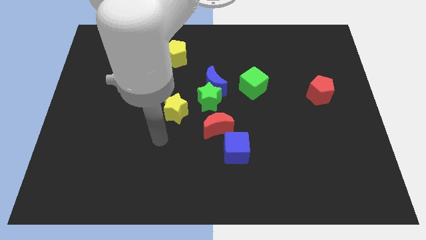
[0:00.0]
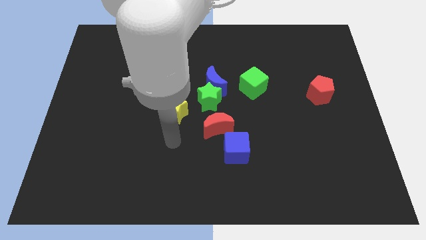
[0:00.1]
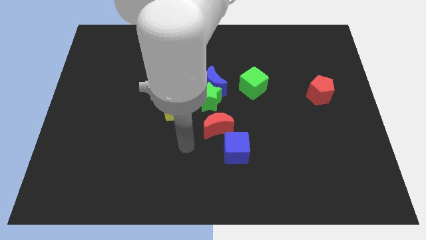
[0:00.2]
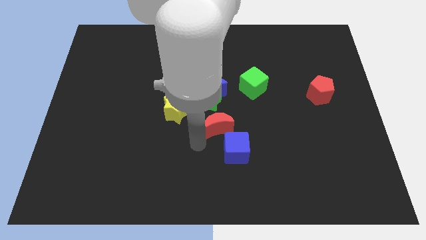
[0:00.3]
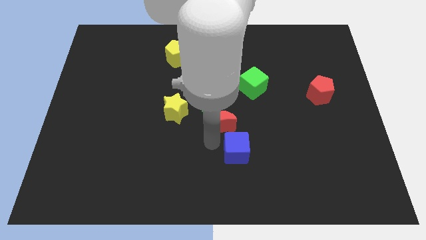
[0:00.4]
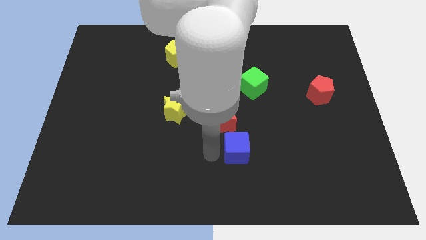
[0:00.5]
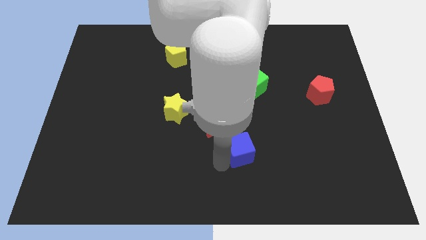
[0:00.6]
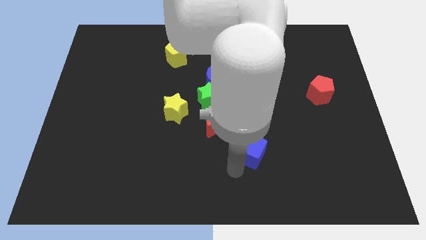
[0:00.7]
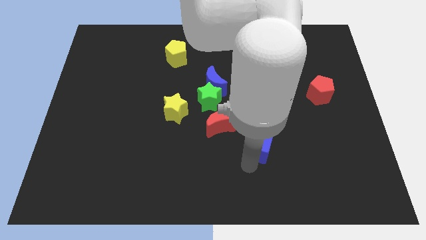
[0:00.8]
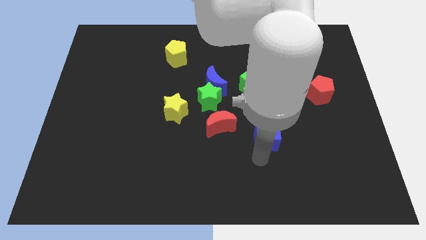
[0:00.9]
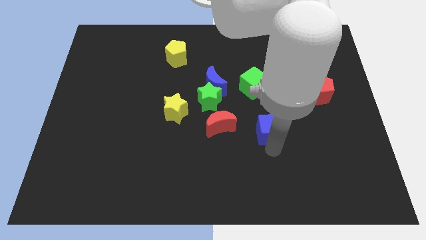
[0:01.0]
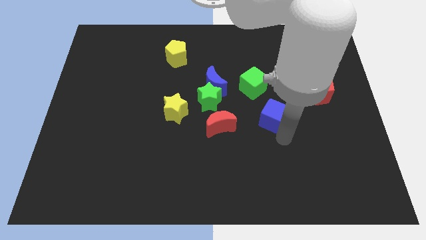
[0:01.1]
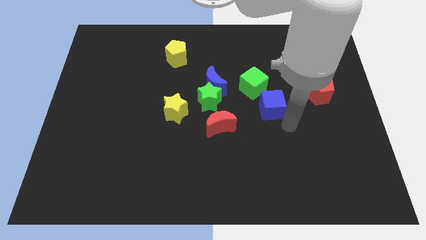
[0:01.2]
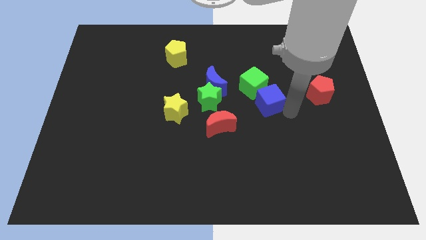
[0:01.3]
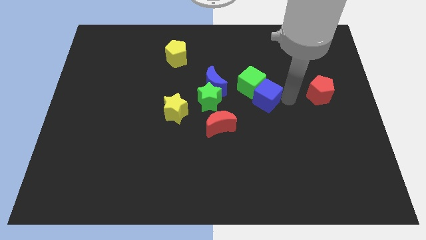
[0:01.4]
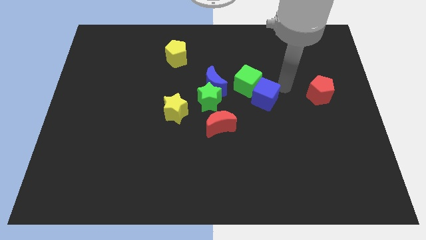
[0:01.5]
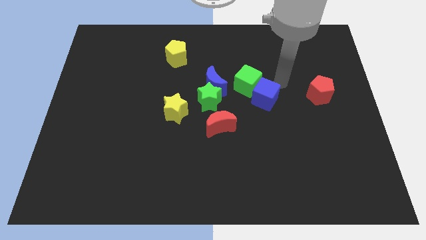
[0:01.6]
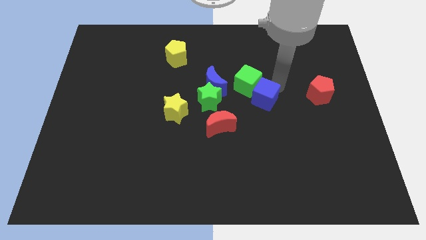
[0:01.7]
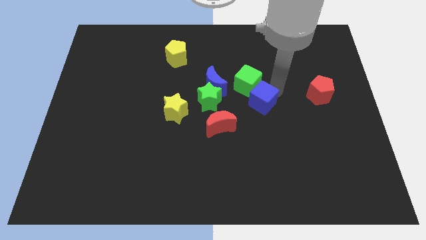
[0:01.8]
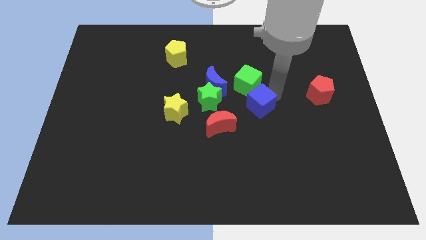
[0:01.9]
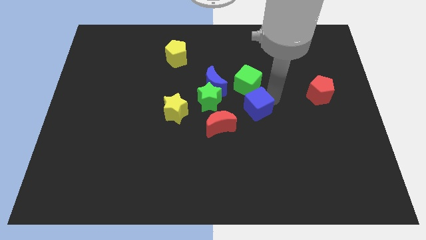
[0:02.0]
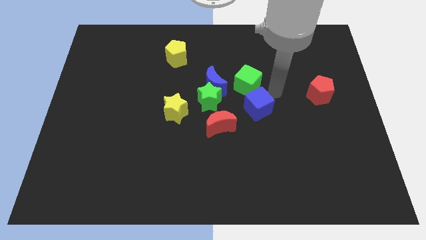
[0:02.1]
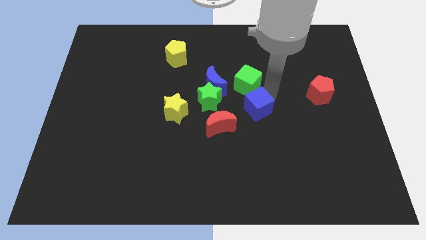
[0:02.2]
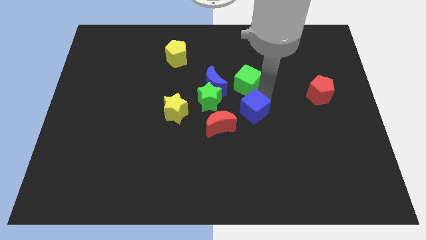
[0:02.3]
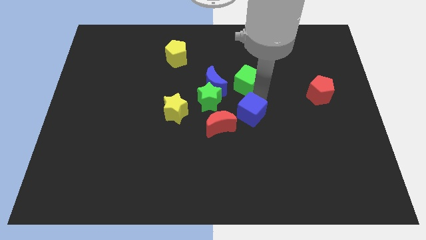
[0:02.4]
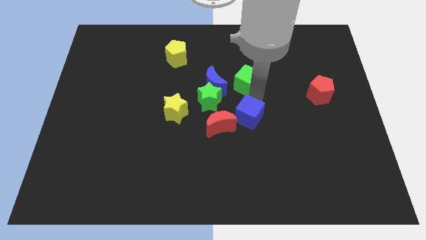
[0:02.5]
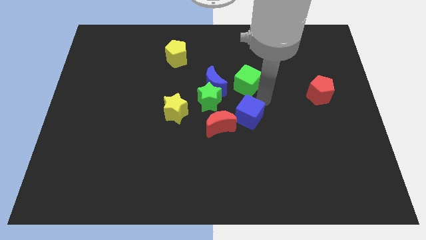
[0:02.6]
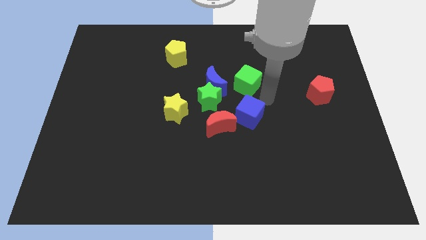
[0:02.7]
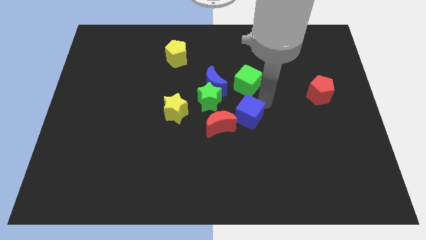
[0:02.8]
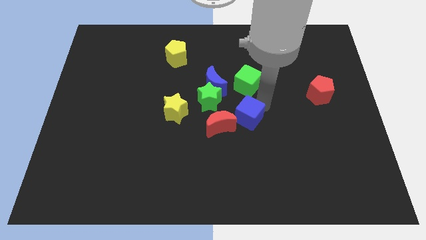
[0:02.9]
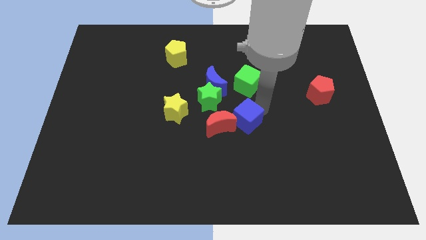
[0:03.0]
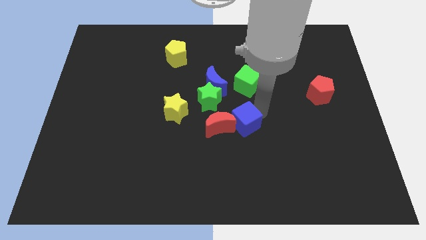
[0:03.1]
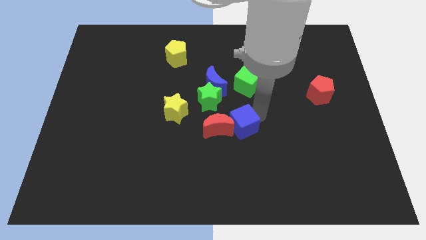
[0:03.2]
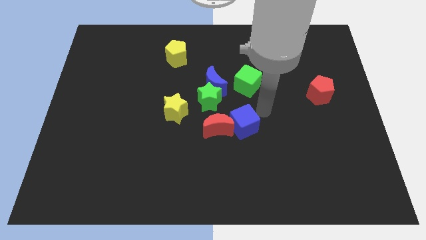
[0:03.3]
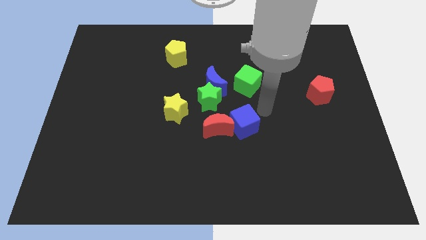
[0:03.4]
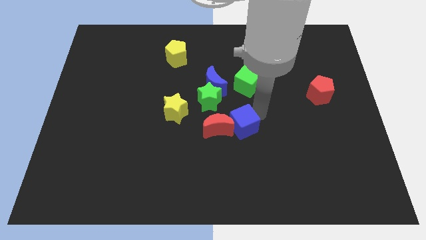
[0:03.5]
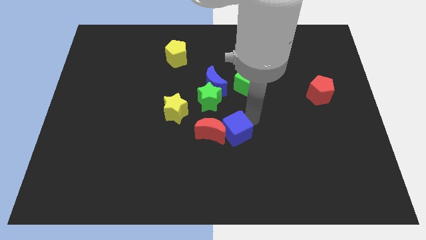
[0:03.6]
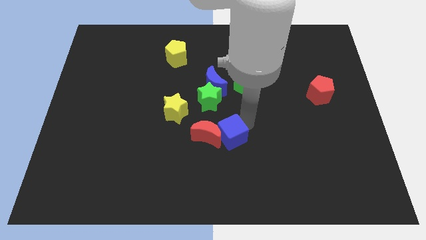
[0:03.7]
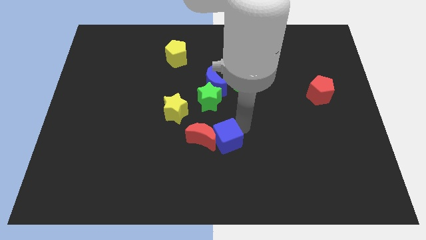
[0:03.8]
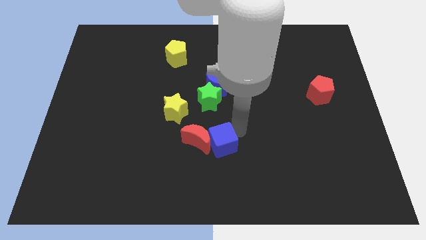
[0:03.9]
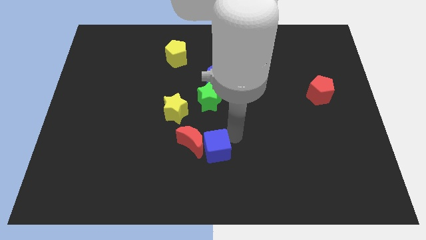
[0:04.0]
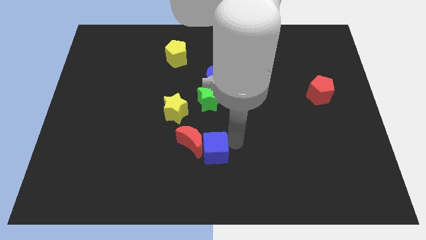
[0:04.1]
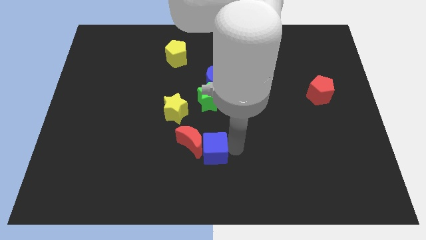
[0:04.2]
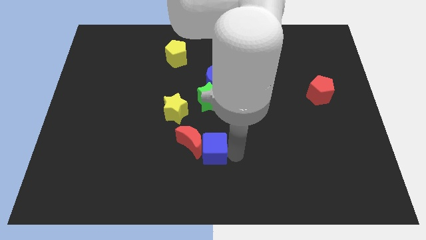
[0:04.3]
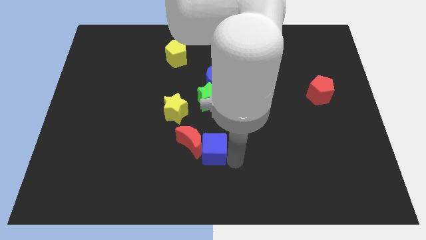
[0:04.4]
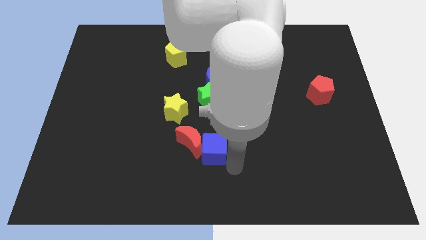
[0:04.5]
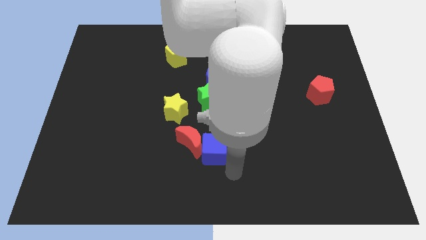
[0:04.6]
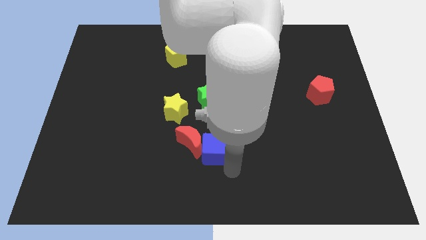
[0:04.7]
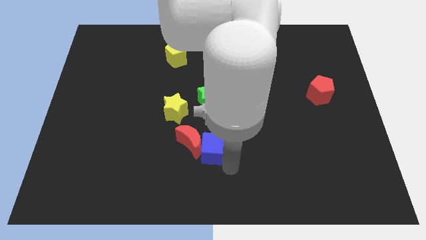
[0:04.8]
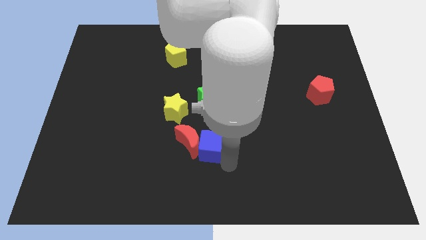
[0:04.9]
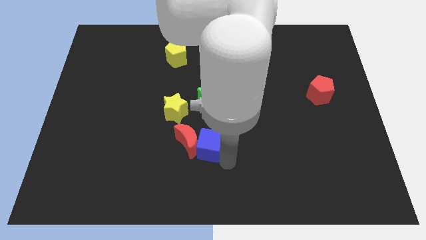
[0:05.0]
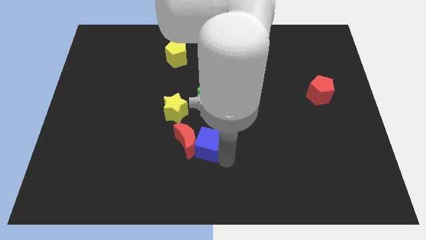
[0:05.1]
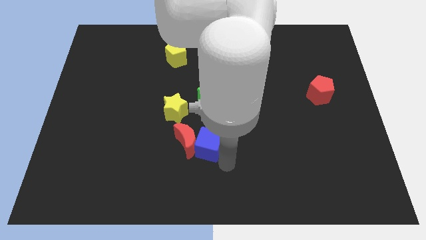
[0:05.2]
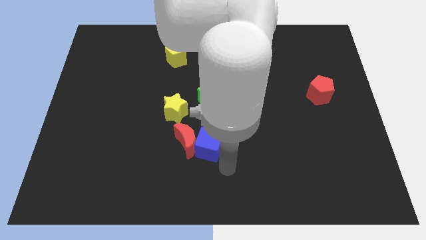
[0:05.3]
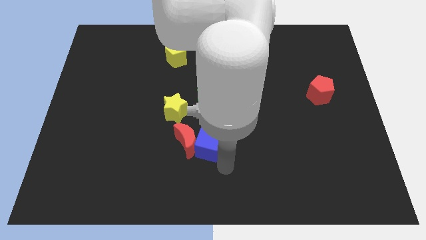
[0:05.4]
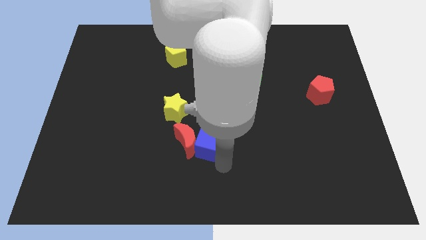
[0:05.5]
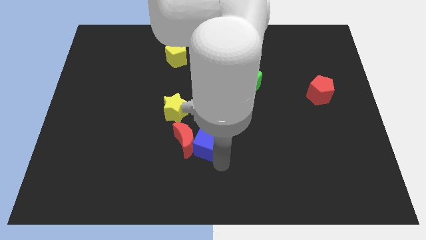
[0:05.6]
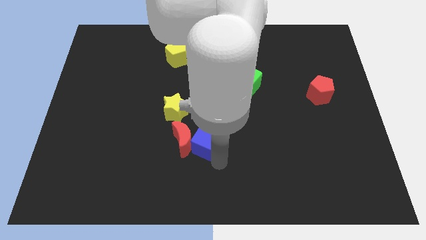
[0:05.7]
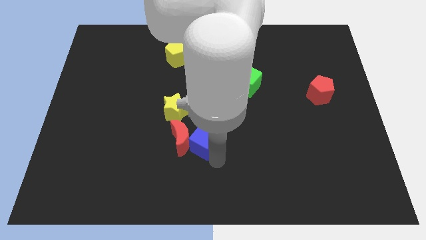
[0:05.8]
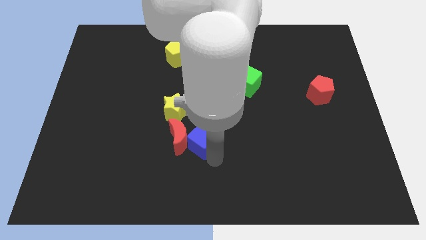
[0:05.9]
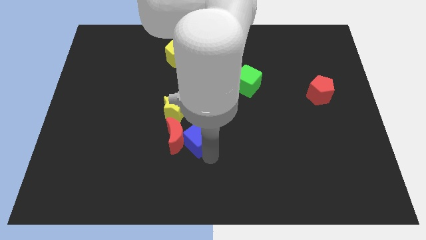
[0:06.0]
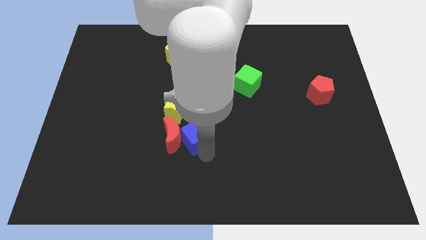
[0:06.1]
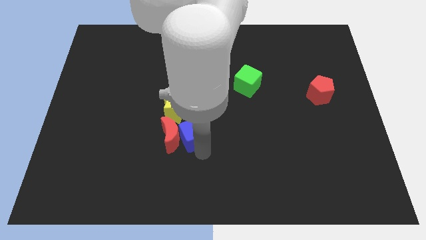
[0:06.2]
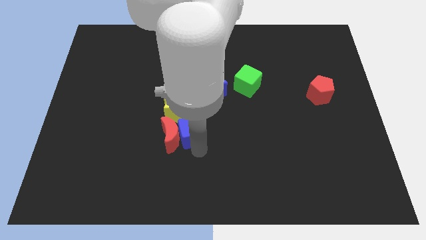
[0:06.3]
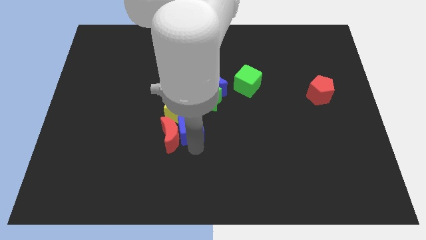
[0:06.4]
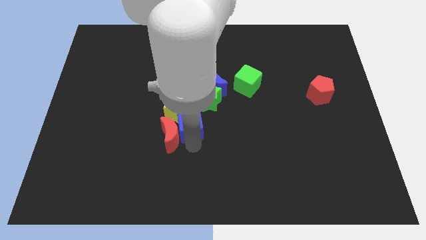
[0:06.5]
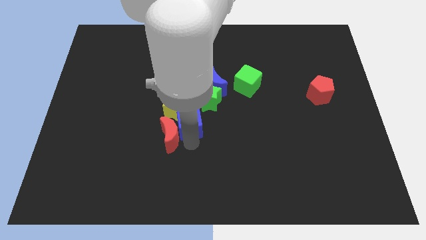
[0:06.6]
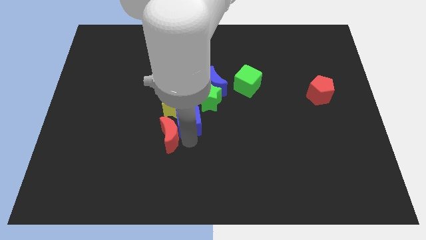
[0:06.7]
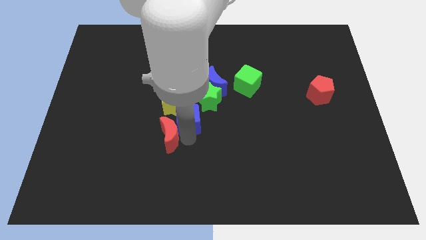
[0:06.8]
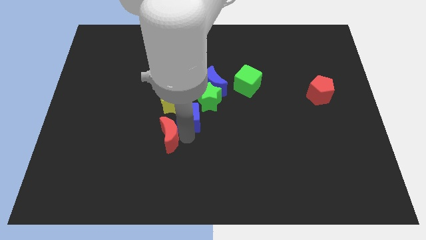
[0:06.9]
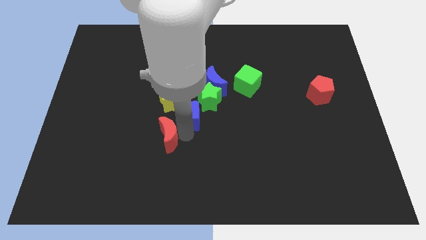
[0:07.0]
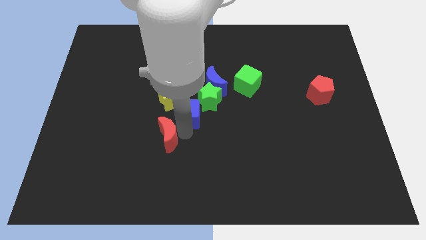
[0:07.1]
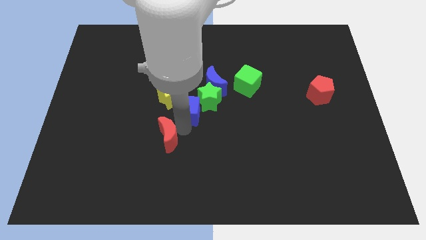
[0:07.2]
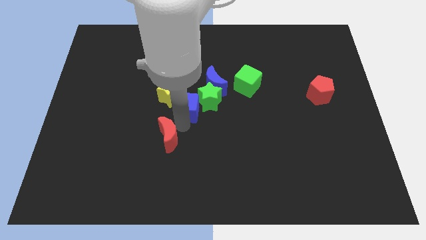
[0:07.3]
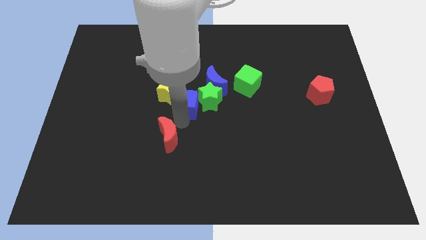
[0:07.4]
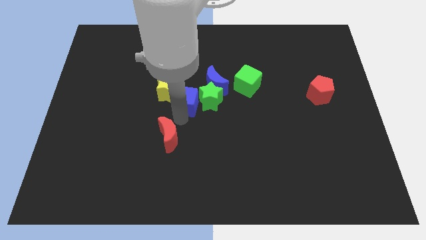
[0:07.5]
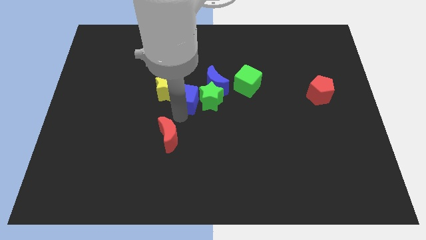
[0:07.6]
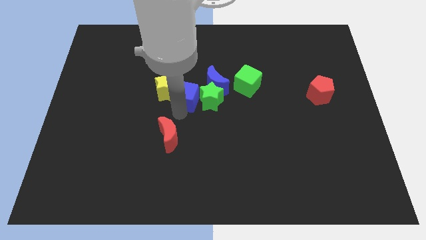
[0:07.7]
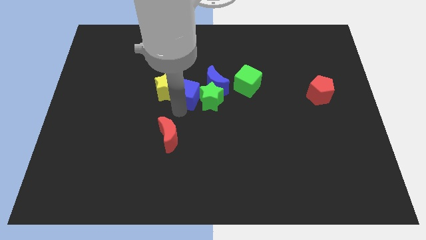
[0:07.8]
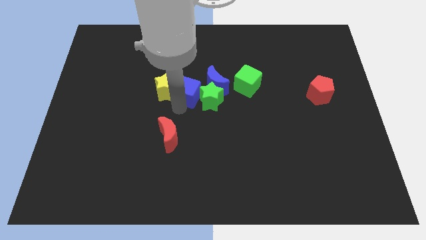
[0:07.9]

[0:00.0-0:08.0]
slide the blue cube to the left side of the green cube

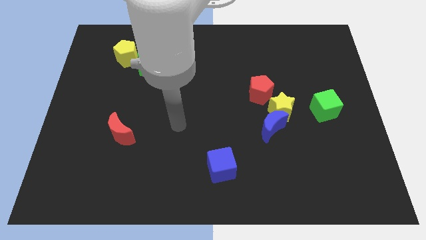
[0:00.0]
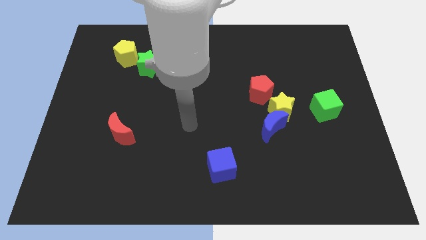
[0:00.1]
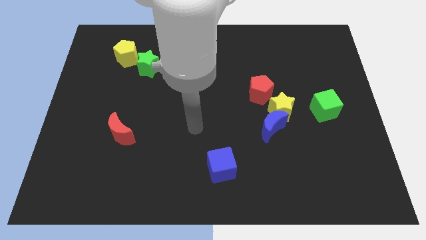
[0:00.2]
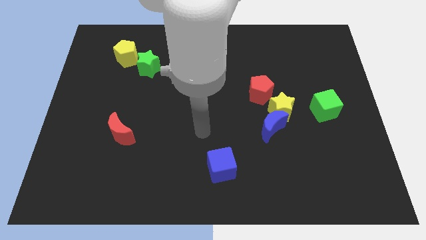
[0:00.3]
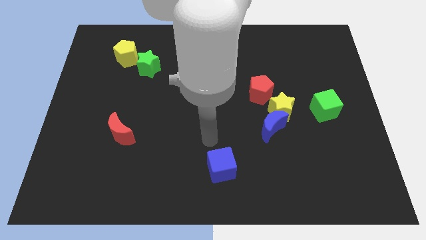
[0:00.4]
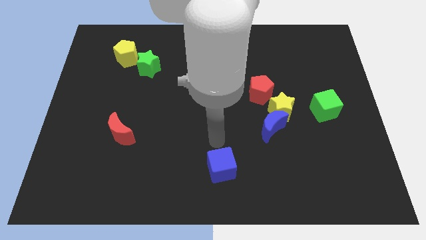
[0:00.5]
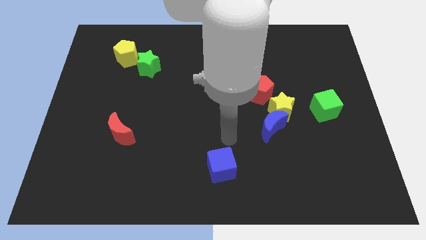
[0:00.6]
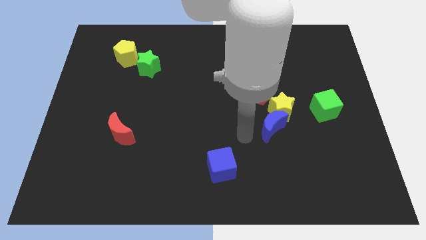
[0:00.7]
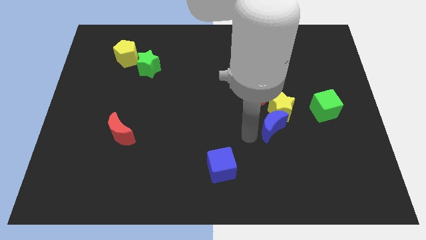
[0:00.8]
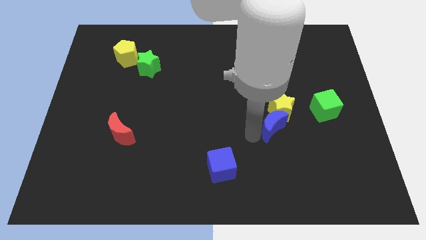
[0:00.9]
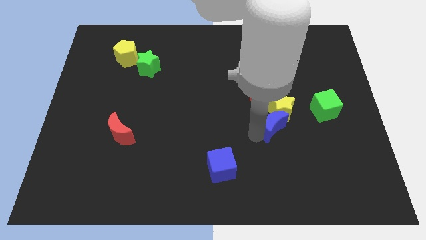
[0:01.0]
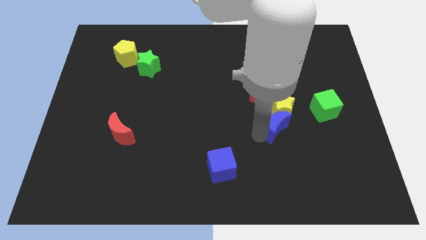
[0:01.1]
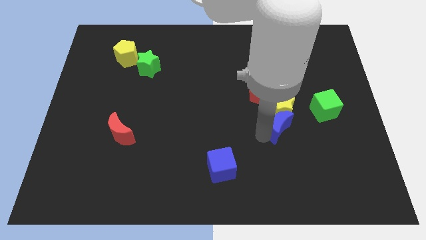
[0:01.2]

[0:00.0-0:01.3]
put the blue moon diagonally down and to the right of the red pentagon
